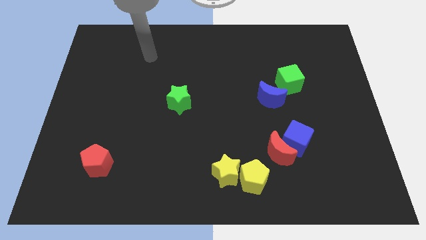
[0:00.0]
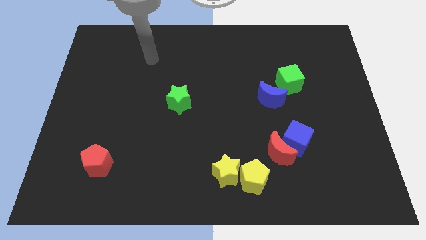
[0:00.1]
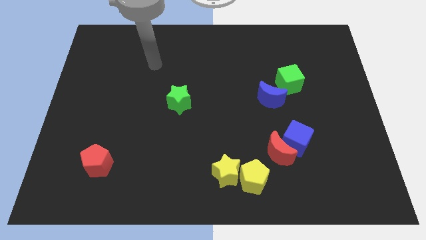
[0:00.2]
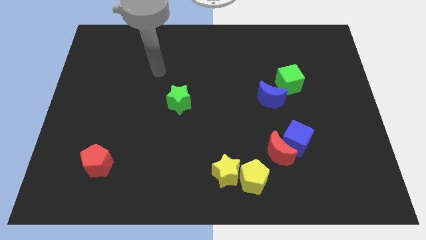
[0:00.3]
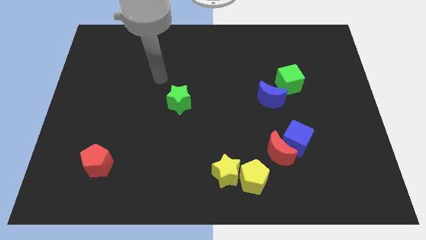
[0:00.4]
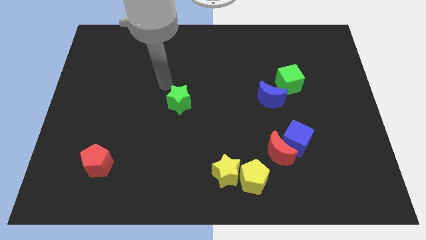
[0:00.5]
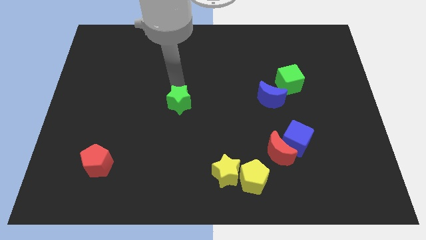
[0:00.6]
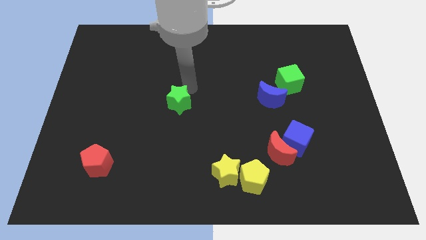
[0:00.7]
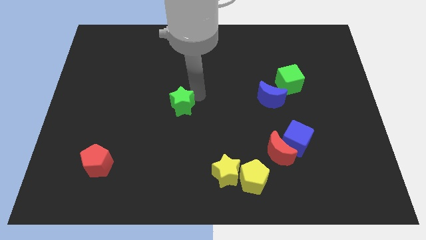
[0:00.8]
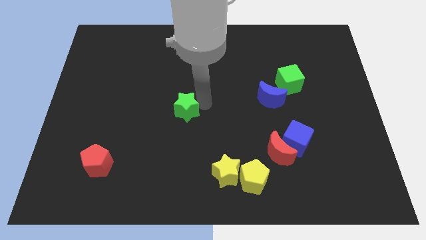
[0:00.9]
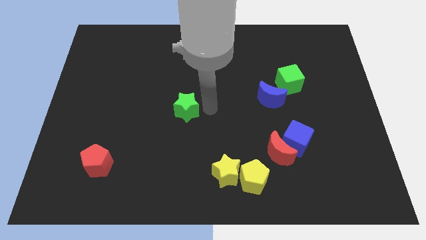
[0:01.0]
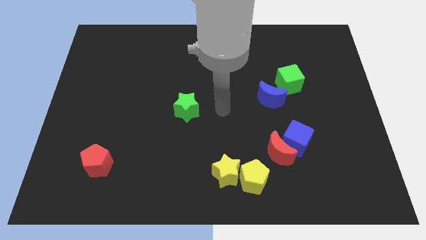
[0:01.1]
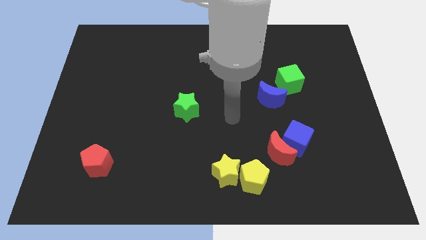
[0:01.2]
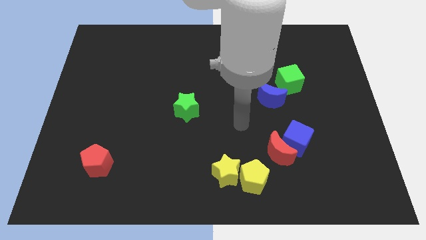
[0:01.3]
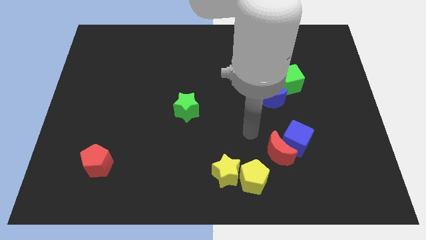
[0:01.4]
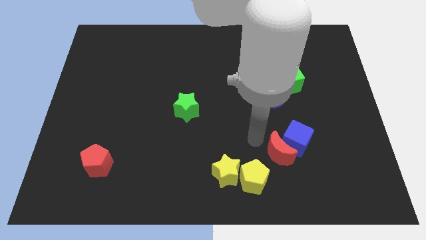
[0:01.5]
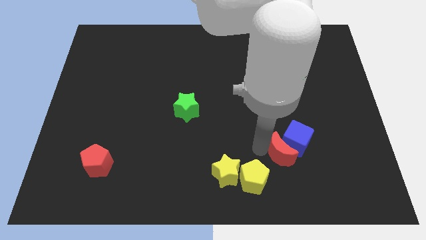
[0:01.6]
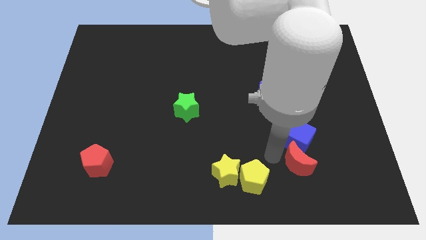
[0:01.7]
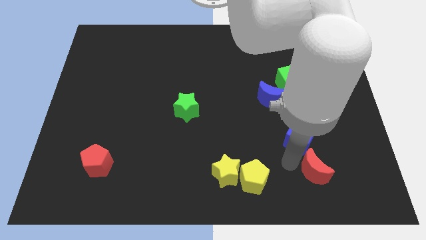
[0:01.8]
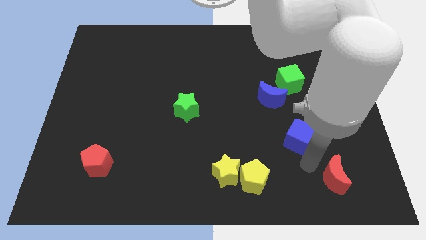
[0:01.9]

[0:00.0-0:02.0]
pull the blue cube apart from the red moon

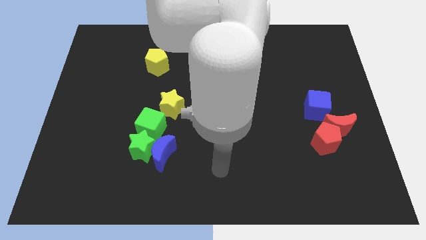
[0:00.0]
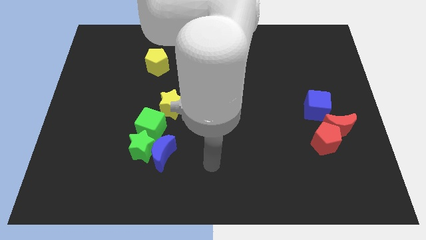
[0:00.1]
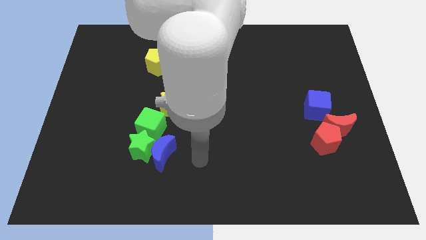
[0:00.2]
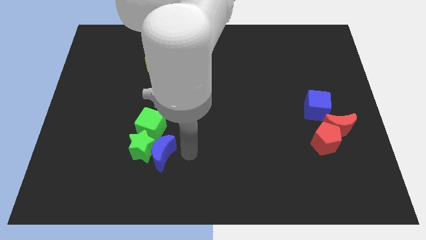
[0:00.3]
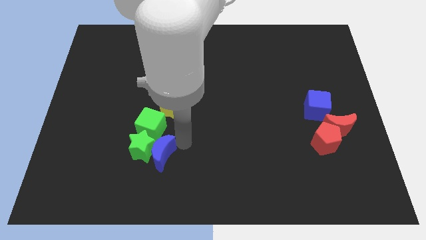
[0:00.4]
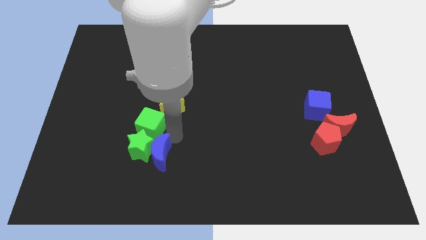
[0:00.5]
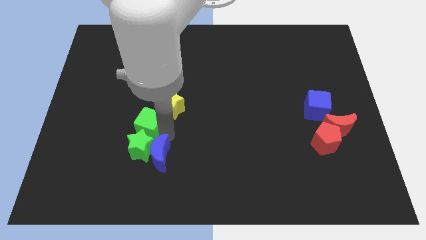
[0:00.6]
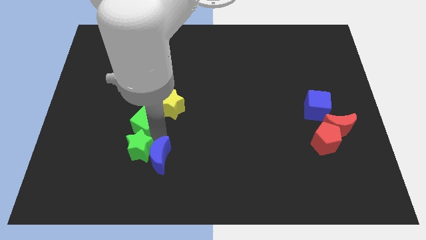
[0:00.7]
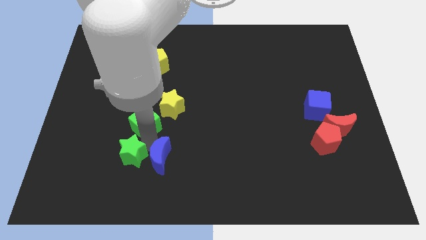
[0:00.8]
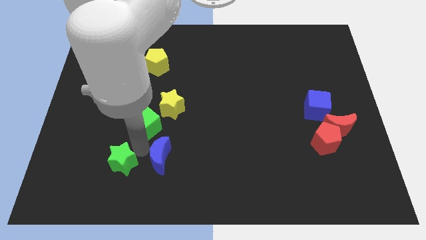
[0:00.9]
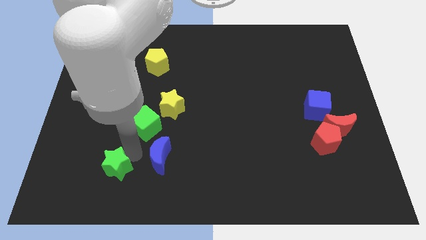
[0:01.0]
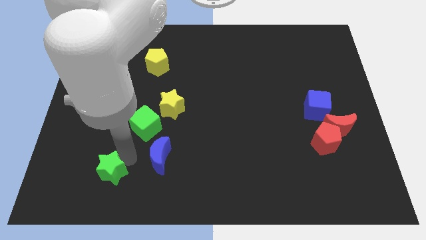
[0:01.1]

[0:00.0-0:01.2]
pull the green star apart from the blue moon and green cube

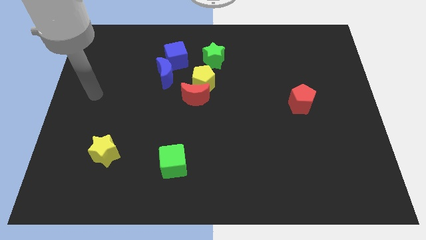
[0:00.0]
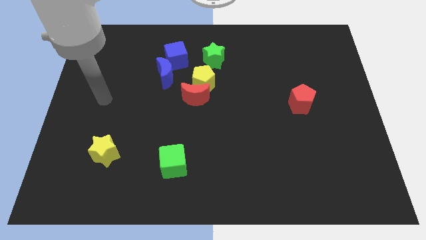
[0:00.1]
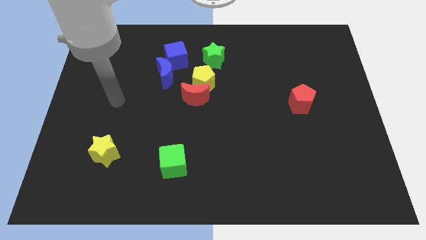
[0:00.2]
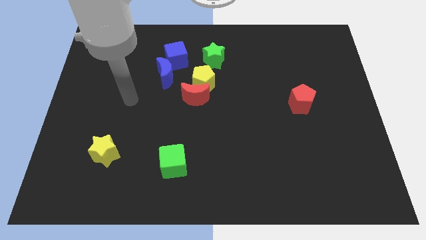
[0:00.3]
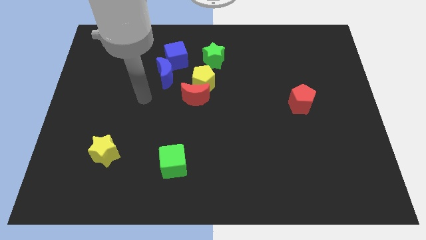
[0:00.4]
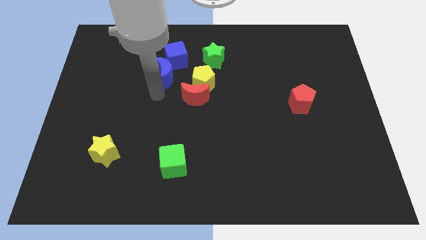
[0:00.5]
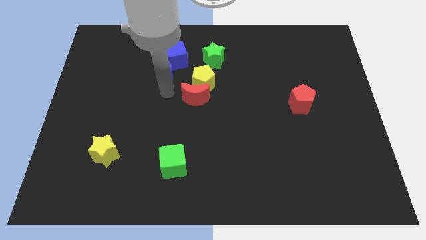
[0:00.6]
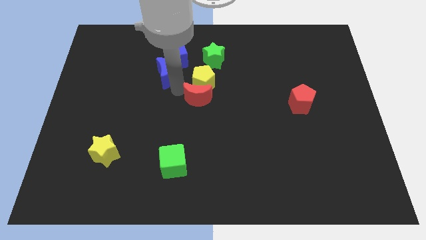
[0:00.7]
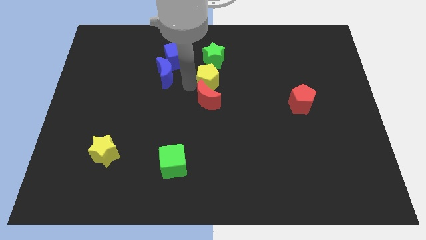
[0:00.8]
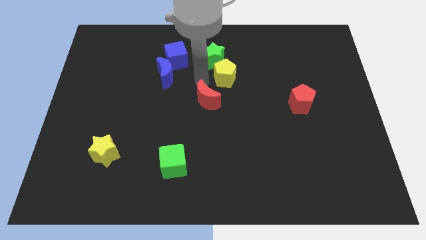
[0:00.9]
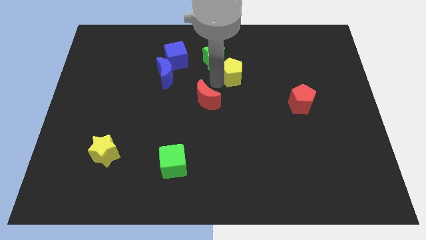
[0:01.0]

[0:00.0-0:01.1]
separate the red moon from the yellow pentagon

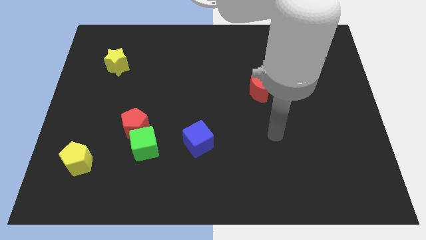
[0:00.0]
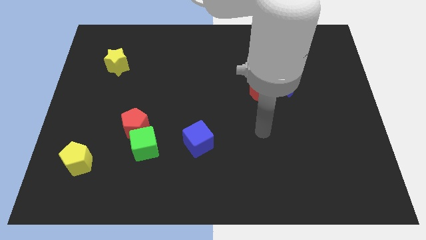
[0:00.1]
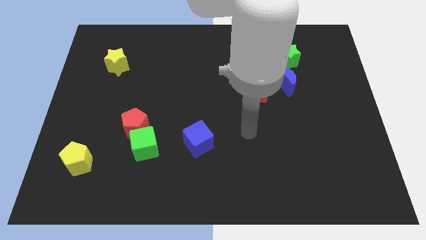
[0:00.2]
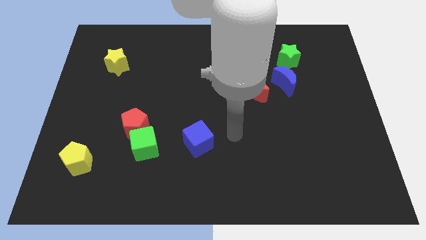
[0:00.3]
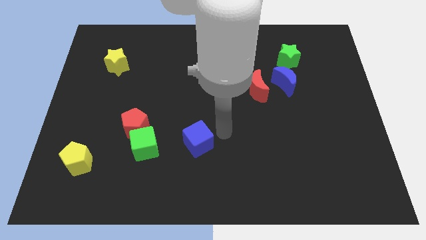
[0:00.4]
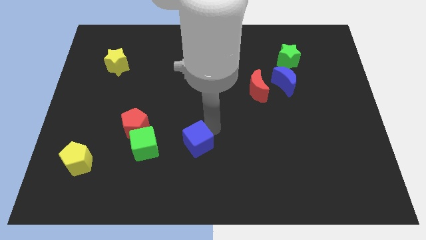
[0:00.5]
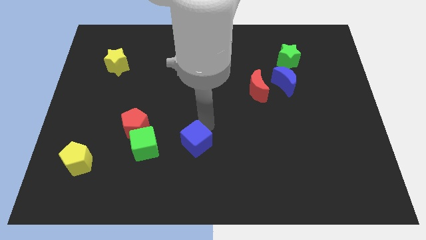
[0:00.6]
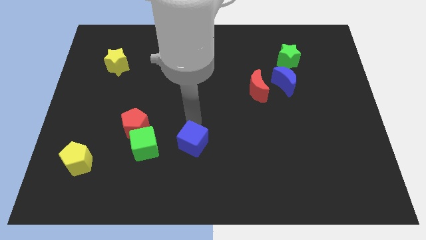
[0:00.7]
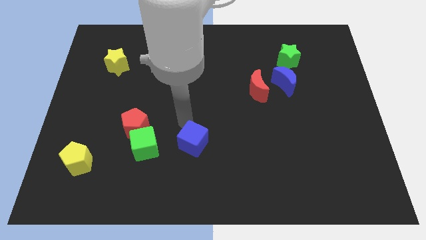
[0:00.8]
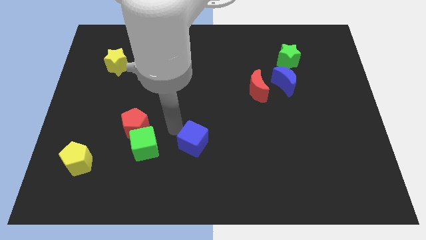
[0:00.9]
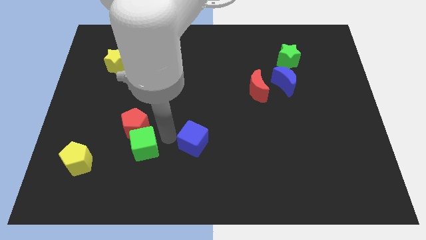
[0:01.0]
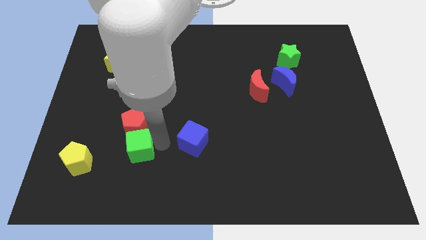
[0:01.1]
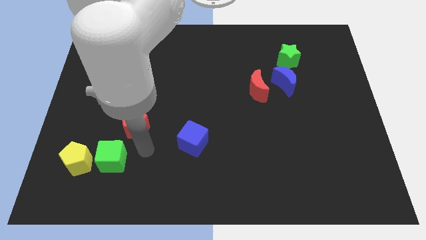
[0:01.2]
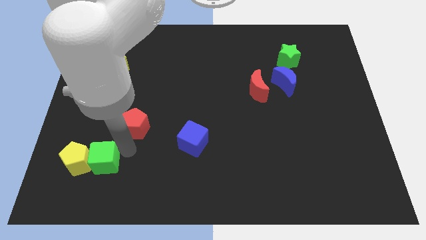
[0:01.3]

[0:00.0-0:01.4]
pull the red pentagon apart from the green cube

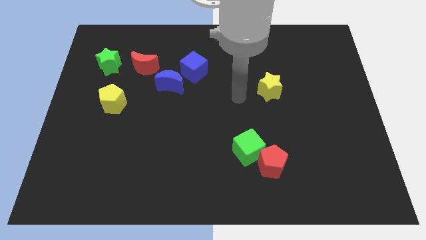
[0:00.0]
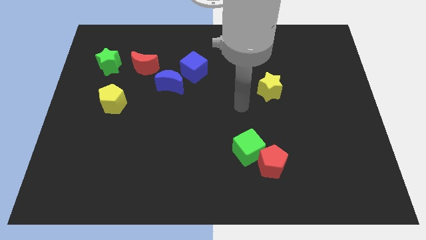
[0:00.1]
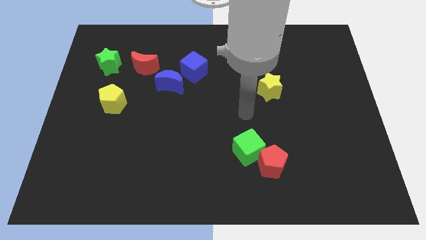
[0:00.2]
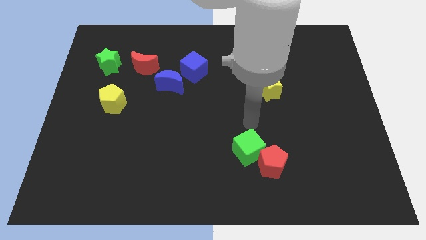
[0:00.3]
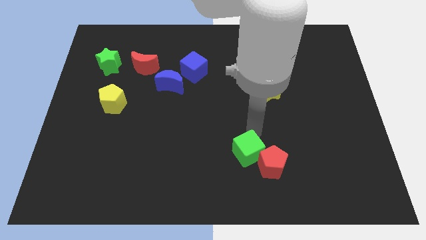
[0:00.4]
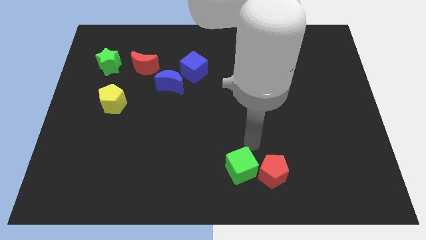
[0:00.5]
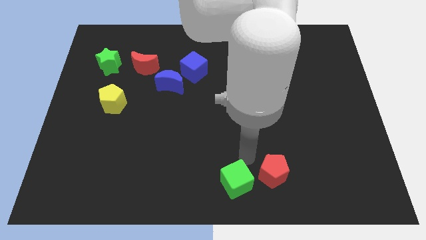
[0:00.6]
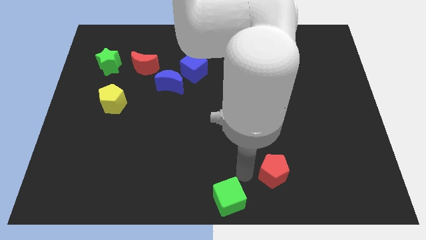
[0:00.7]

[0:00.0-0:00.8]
move the red pentagon away from the green cube

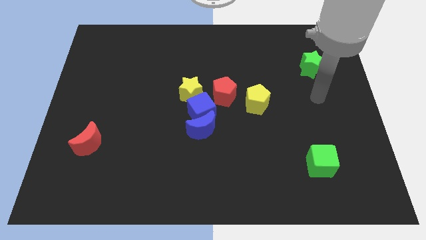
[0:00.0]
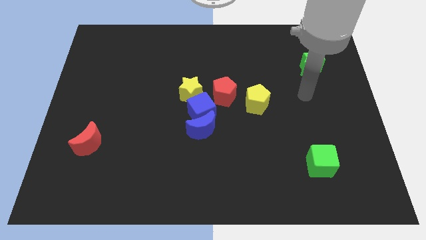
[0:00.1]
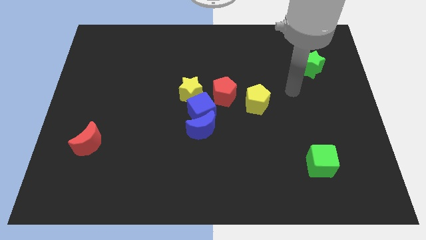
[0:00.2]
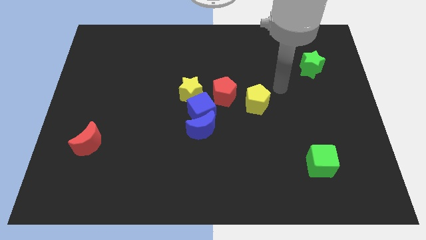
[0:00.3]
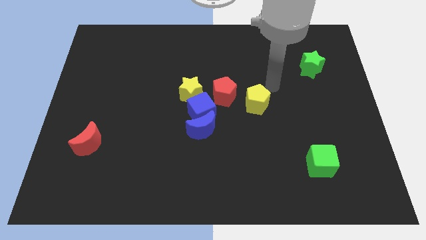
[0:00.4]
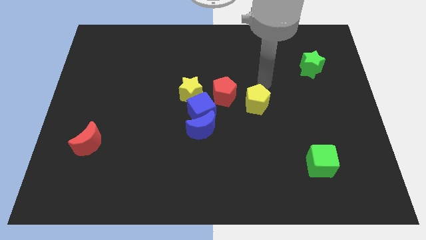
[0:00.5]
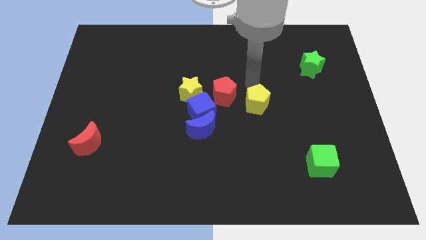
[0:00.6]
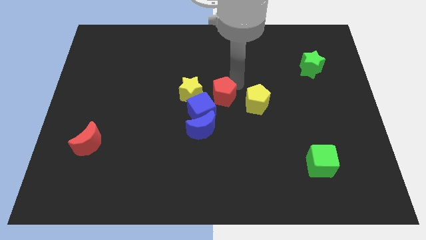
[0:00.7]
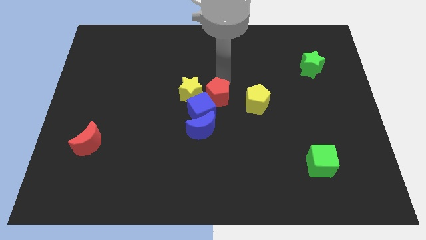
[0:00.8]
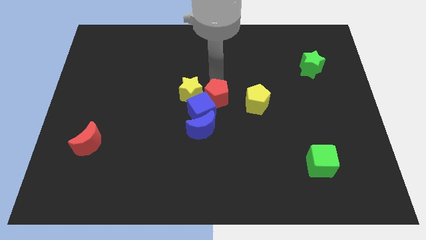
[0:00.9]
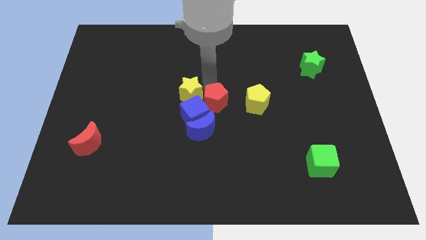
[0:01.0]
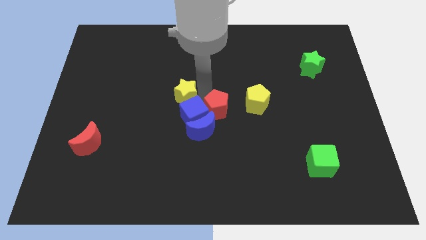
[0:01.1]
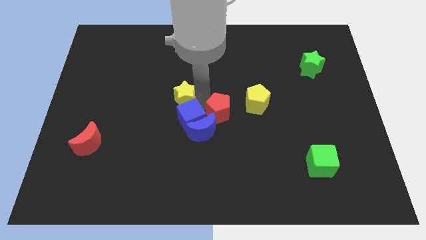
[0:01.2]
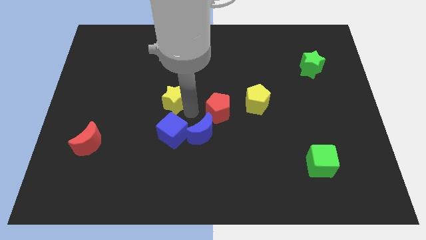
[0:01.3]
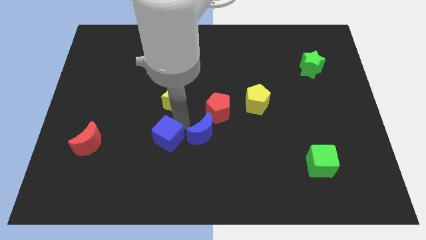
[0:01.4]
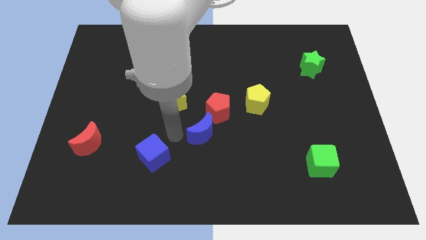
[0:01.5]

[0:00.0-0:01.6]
separate the blue moon from the blue cube

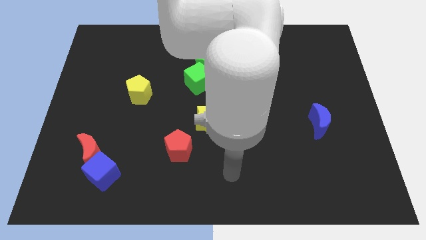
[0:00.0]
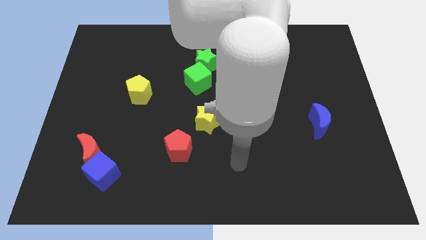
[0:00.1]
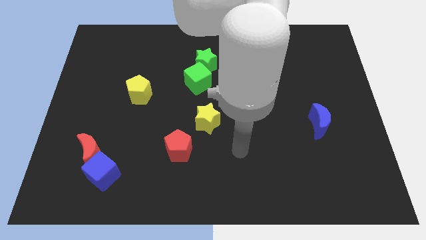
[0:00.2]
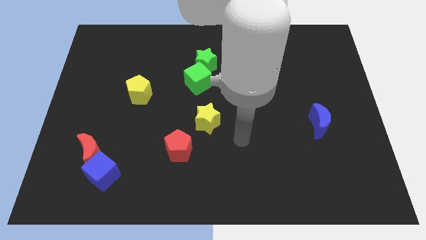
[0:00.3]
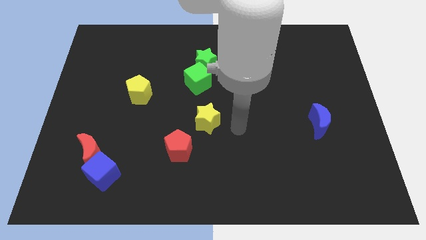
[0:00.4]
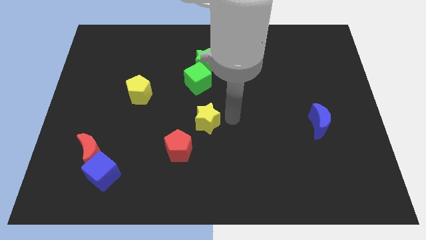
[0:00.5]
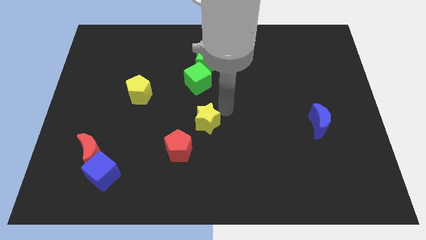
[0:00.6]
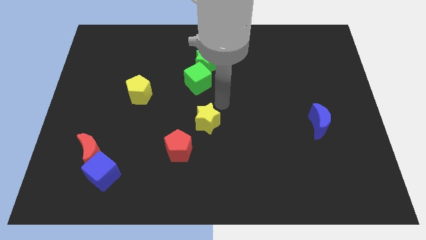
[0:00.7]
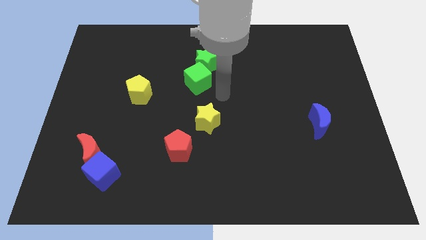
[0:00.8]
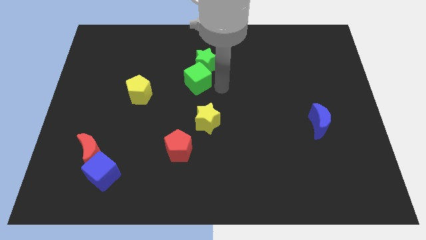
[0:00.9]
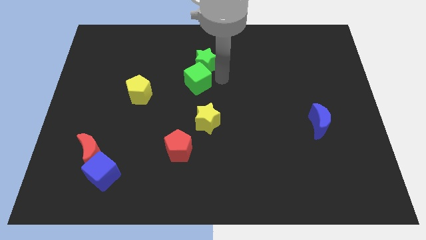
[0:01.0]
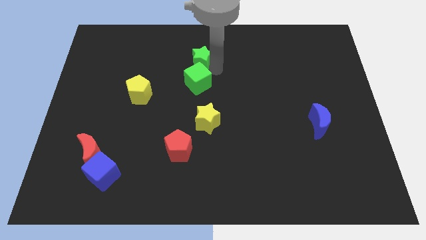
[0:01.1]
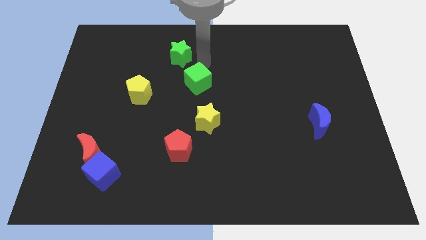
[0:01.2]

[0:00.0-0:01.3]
move the green cube away from the green star
